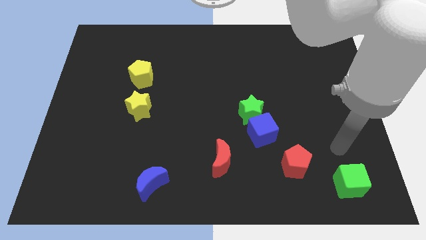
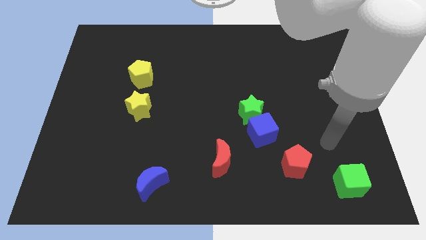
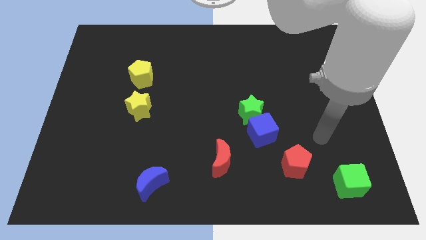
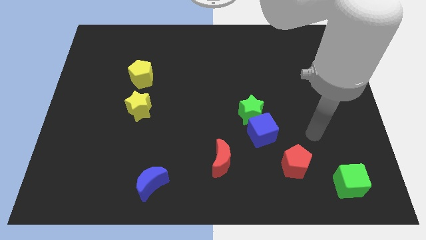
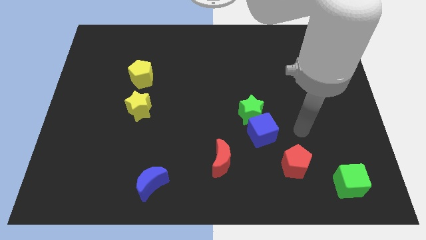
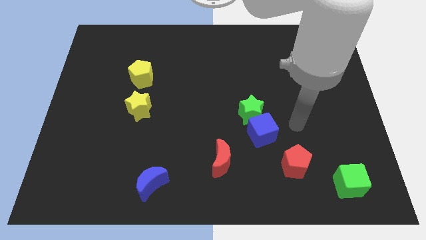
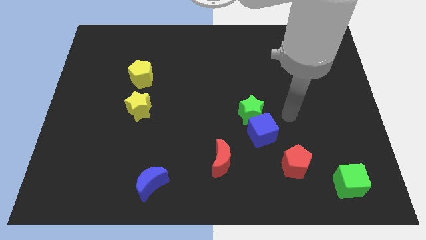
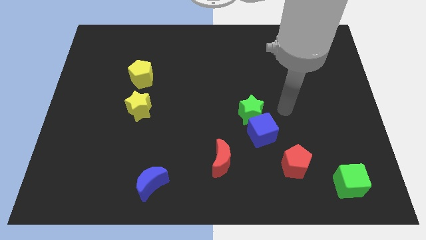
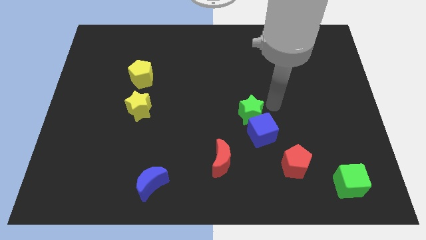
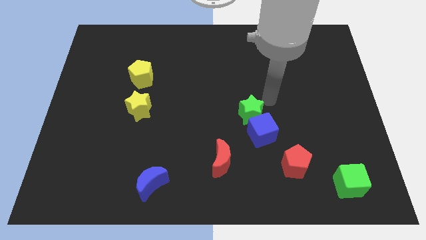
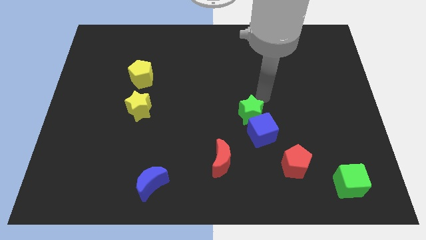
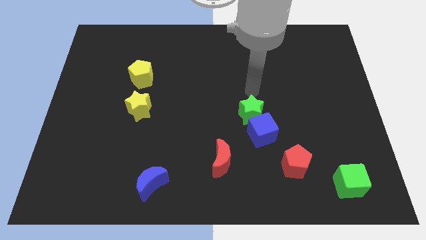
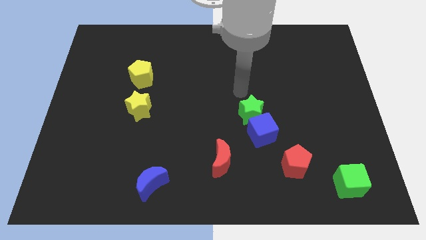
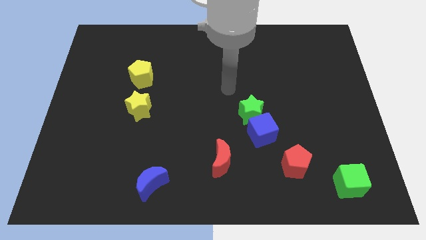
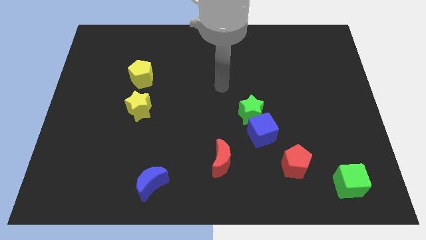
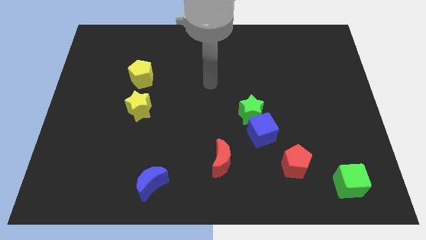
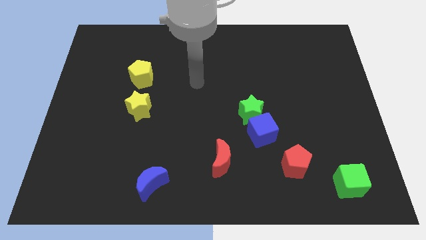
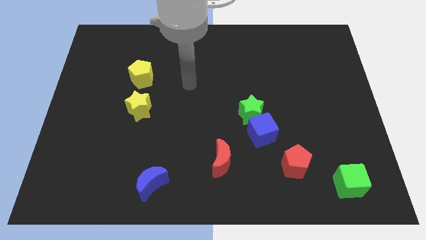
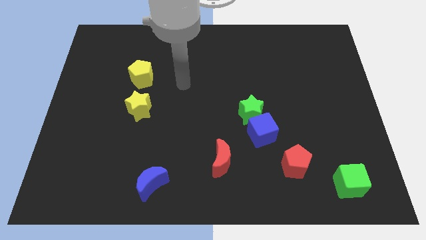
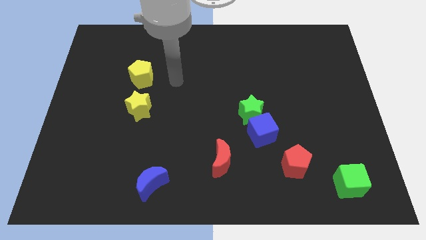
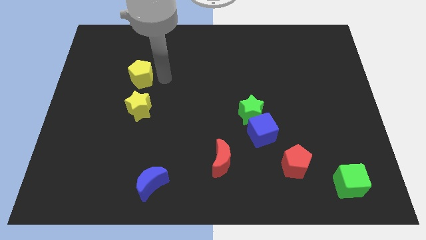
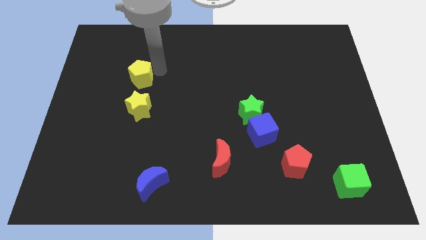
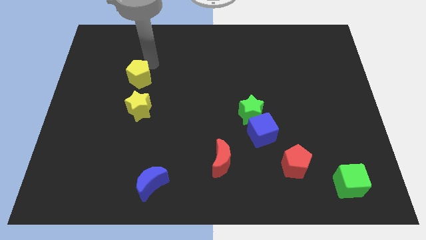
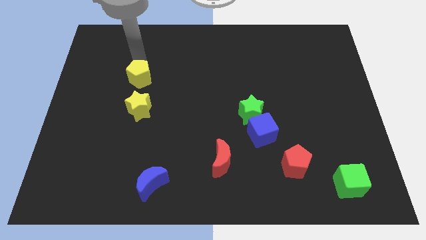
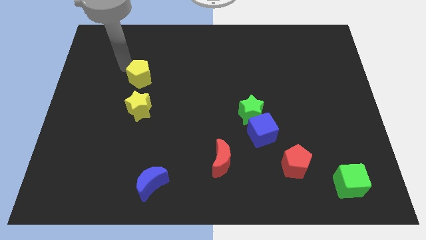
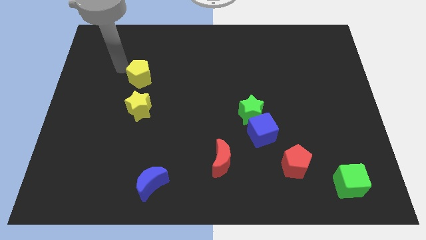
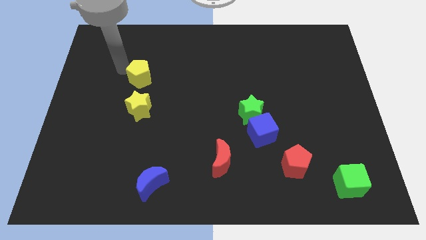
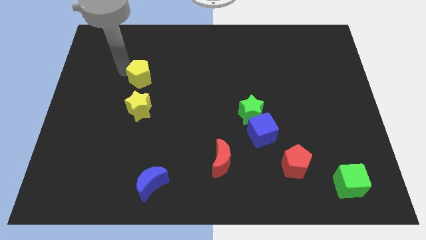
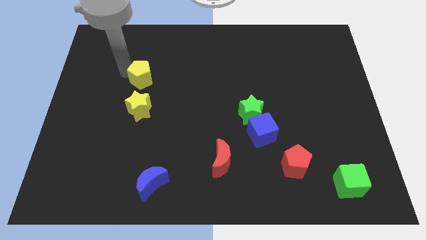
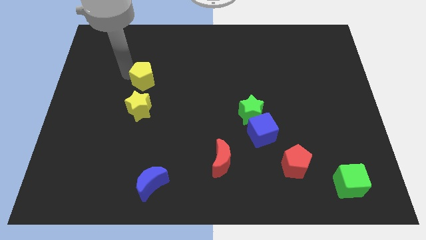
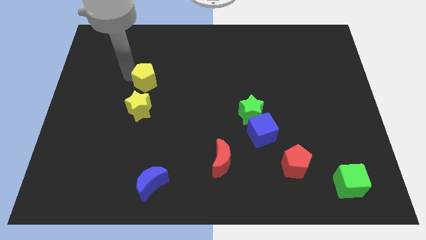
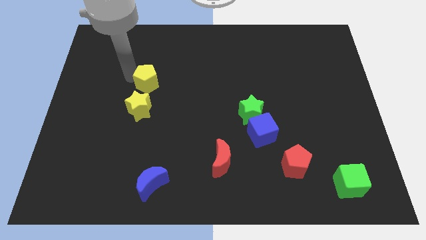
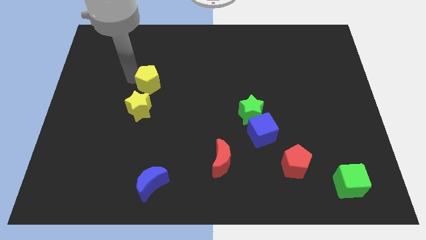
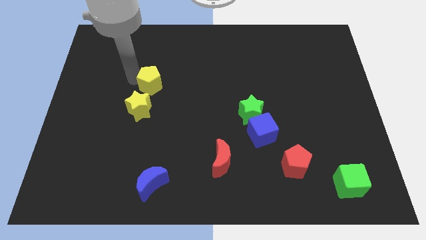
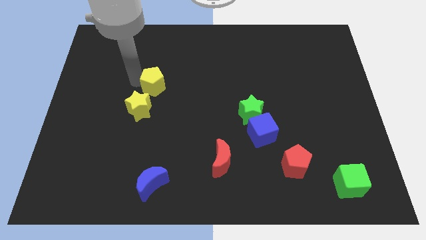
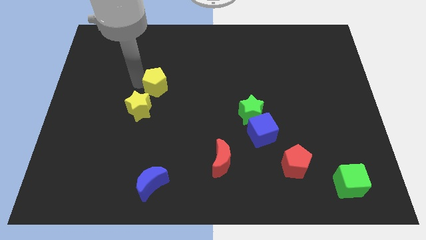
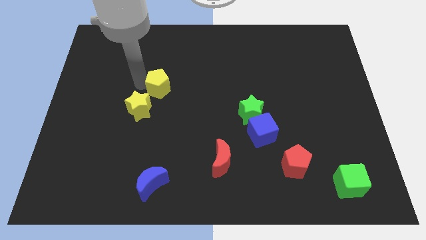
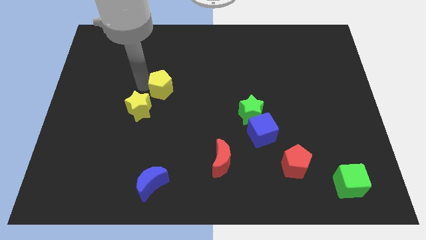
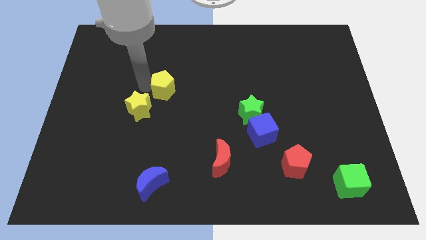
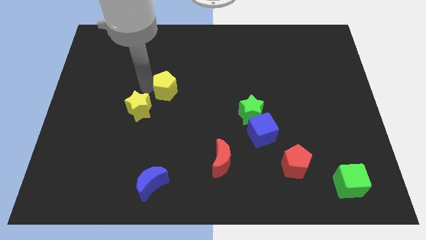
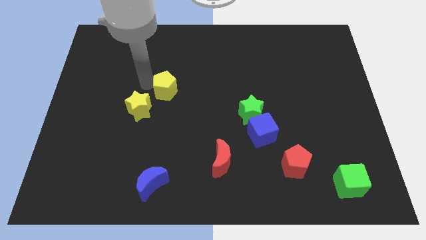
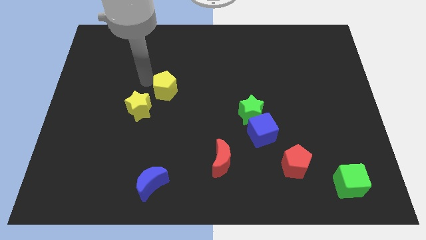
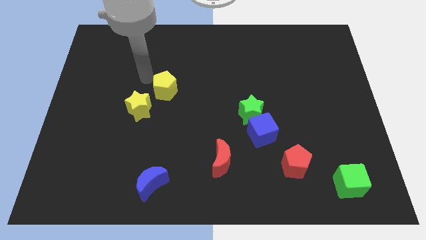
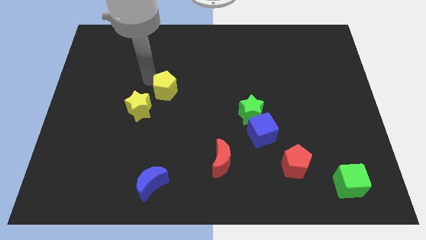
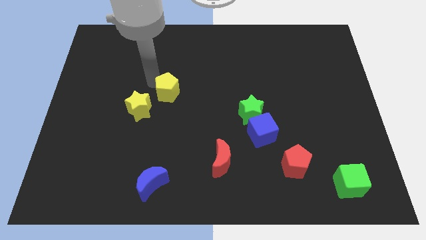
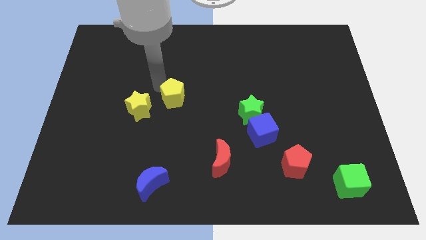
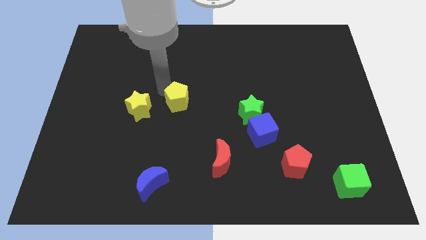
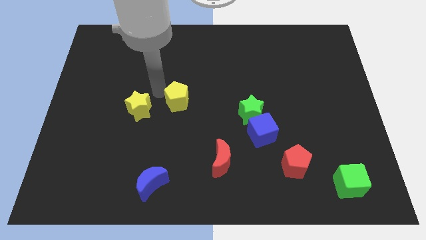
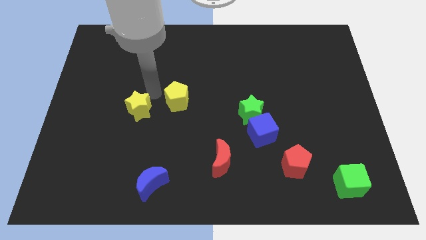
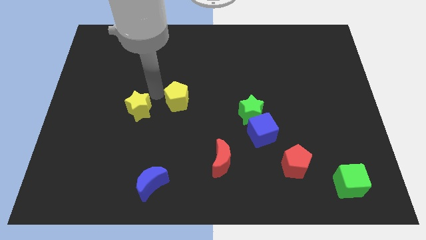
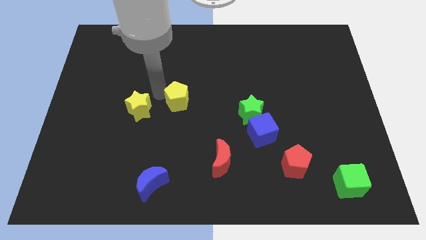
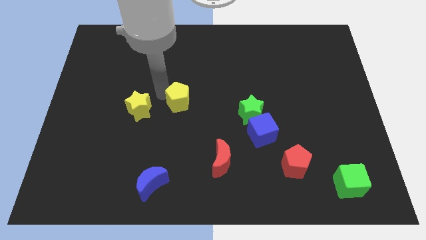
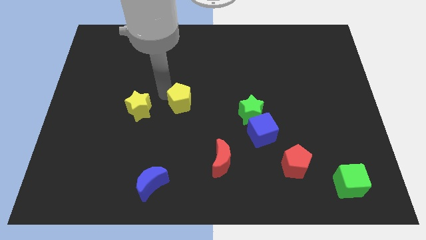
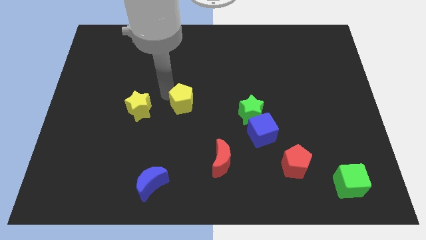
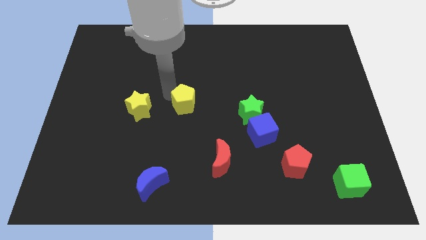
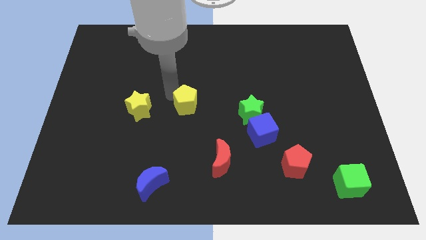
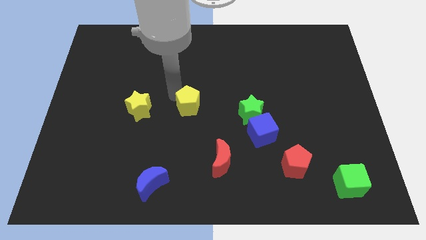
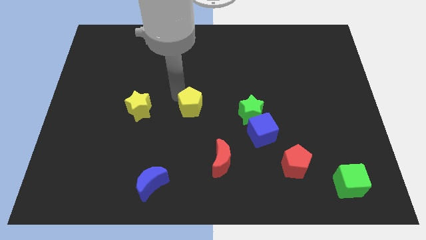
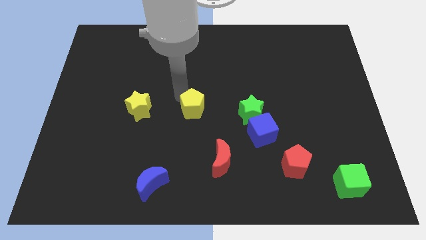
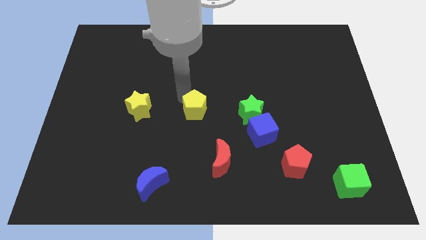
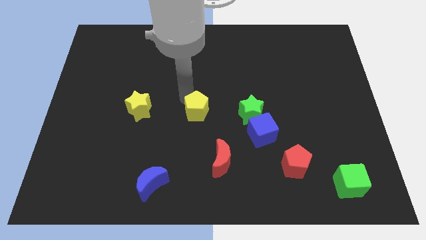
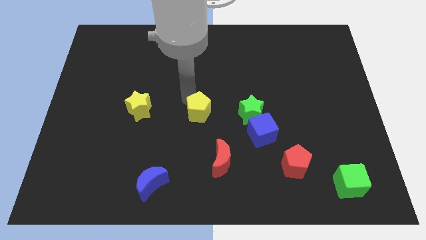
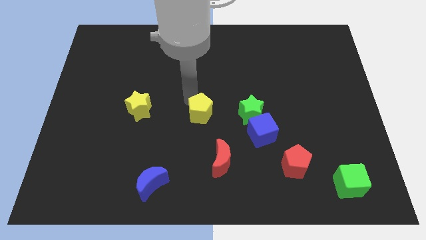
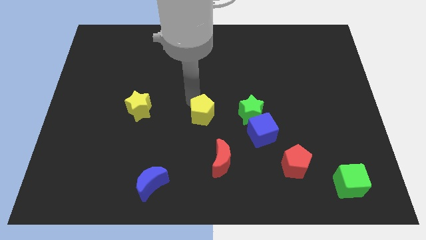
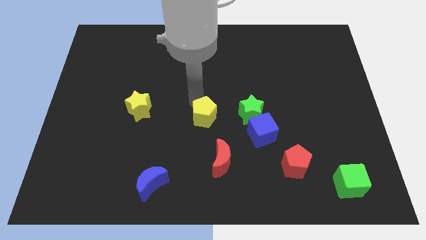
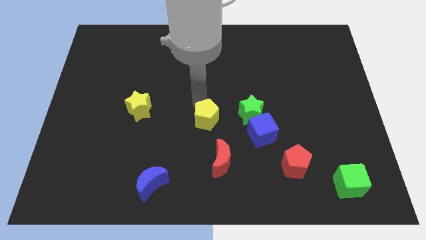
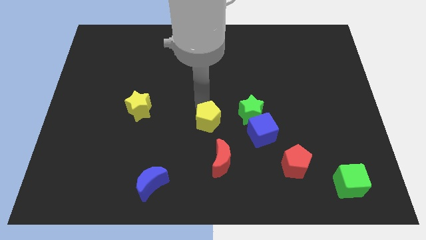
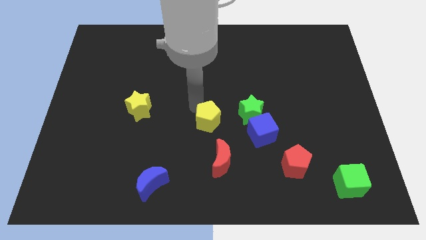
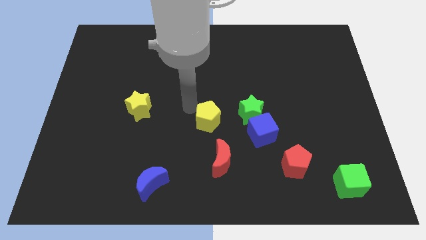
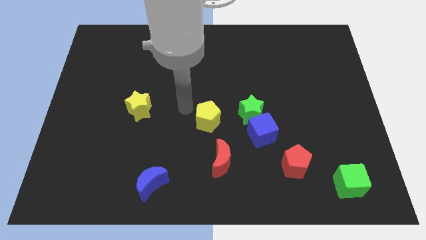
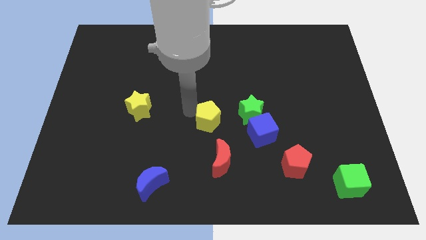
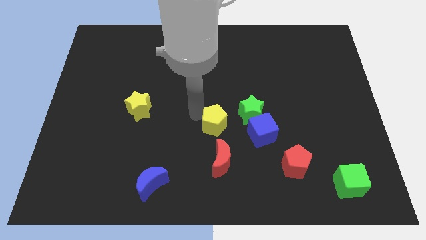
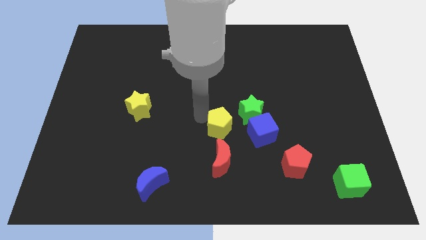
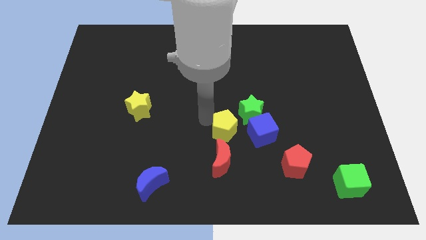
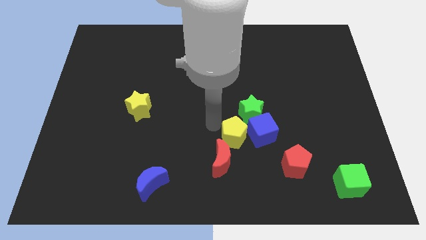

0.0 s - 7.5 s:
push the yellow pentagon close to the blue cube
